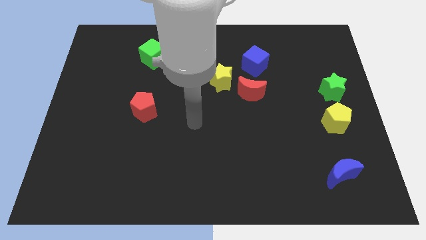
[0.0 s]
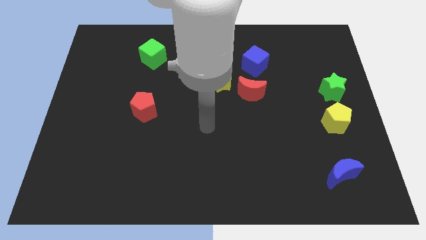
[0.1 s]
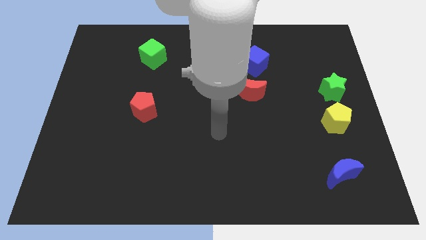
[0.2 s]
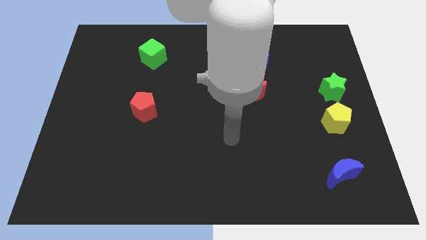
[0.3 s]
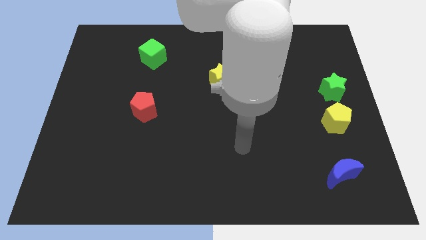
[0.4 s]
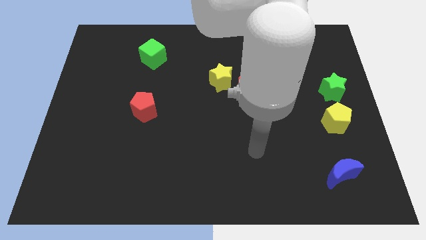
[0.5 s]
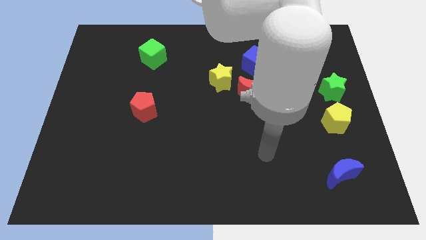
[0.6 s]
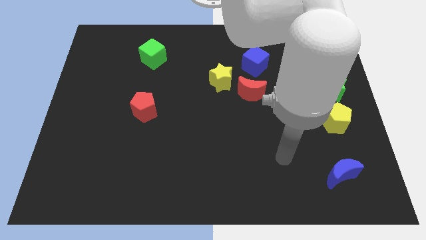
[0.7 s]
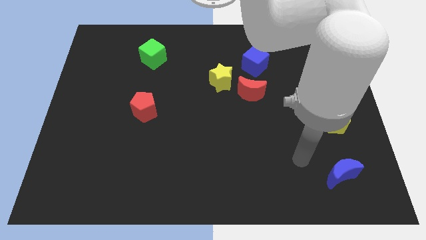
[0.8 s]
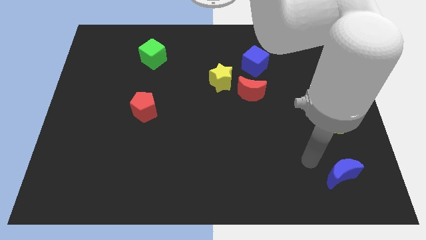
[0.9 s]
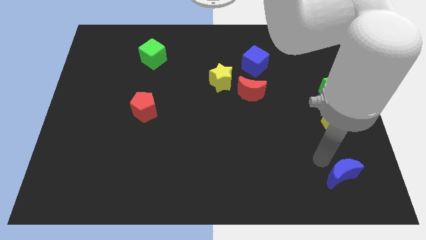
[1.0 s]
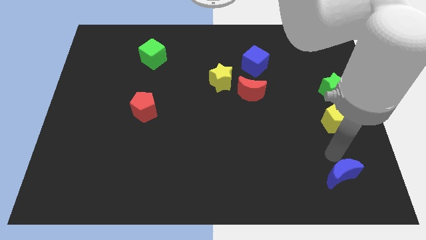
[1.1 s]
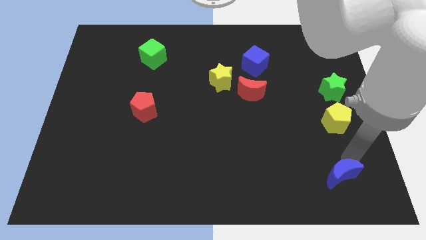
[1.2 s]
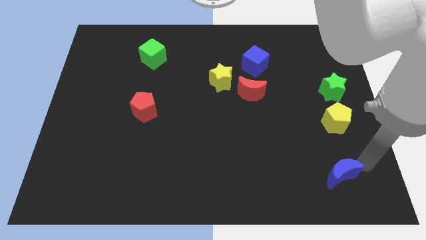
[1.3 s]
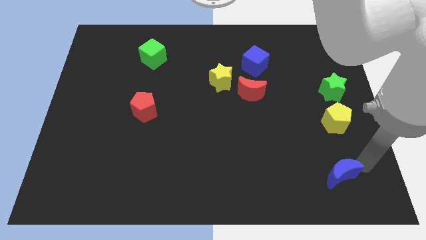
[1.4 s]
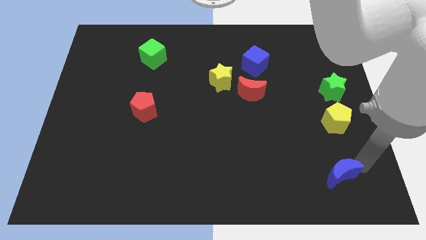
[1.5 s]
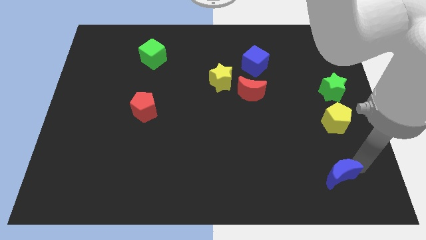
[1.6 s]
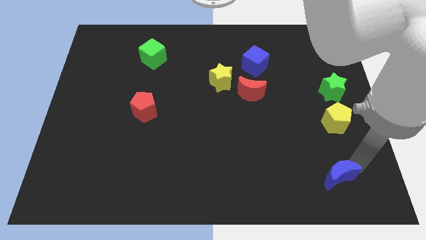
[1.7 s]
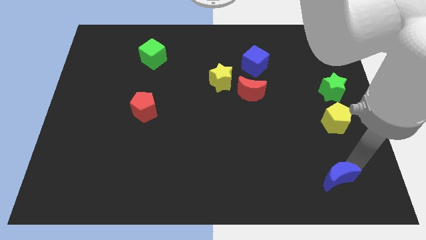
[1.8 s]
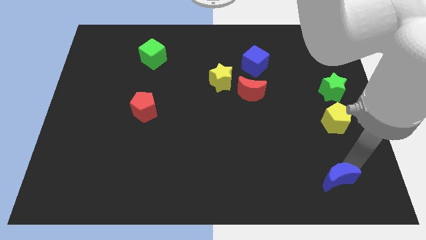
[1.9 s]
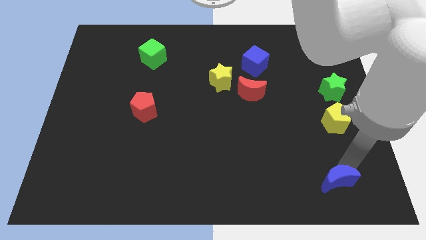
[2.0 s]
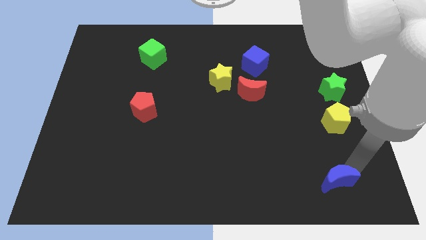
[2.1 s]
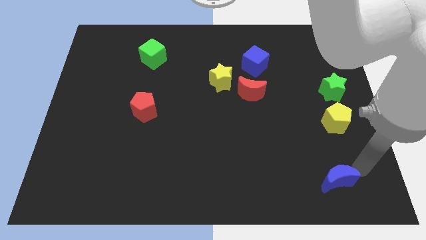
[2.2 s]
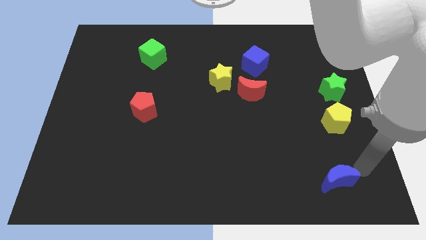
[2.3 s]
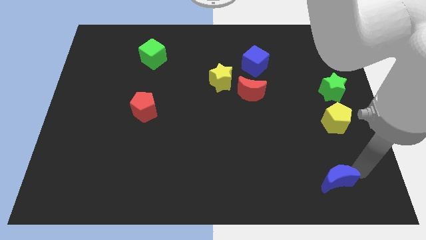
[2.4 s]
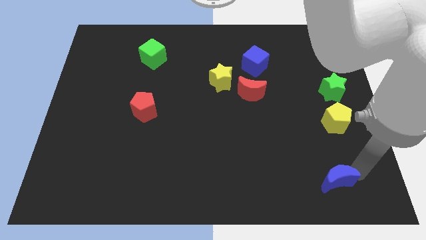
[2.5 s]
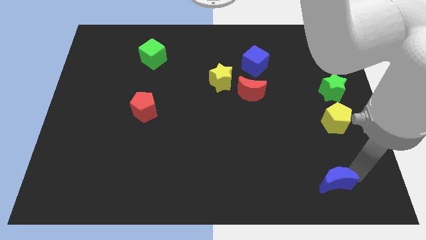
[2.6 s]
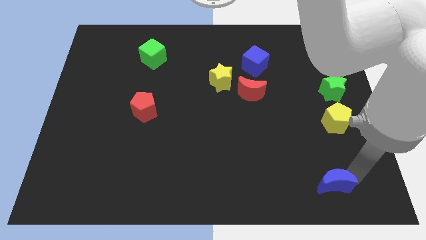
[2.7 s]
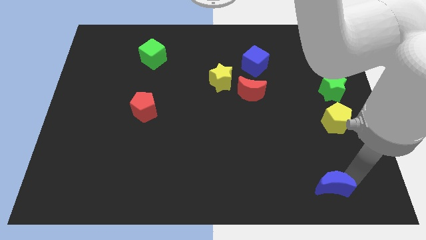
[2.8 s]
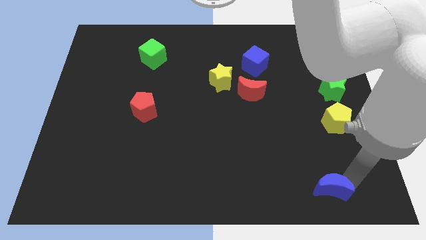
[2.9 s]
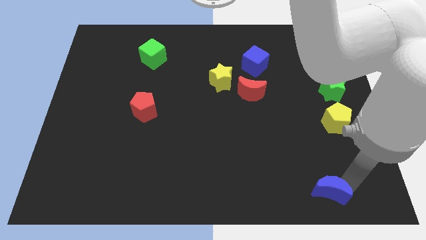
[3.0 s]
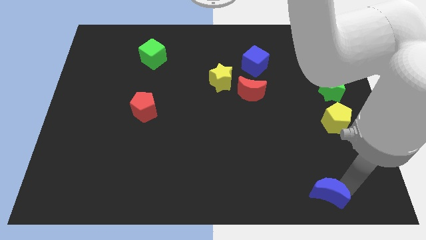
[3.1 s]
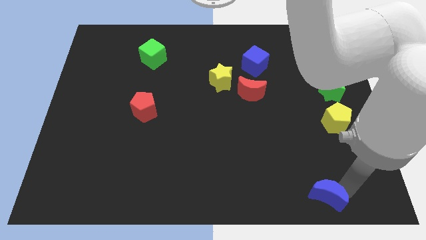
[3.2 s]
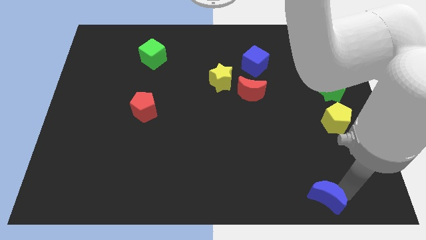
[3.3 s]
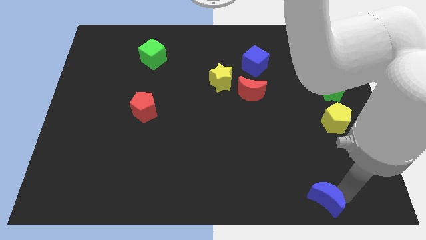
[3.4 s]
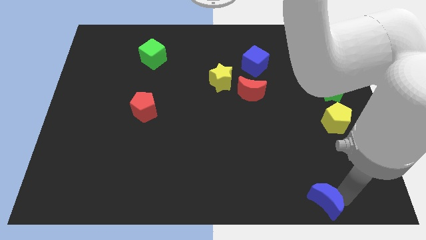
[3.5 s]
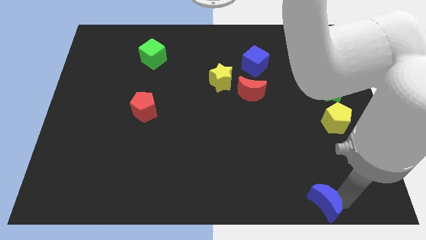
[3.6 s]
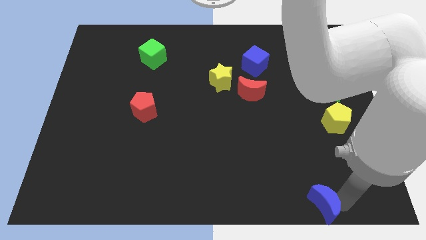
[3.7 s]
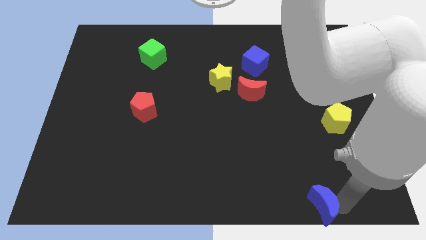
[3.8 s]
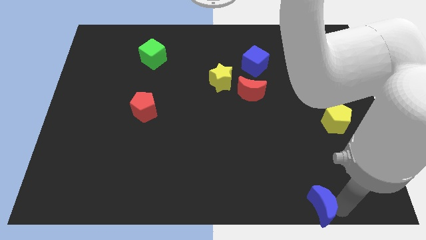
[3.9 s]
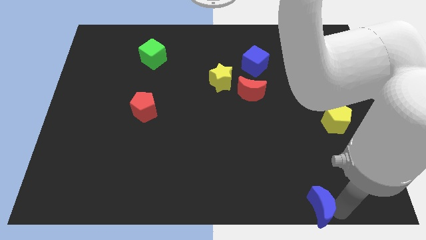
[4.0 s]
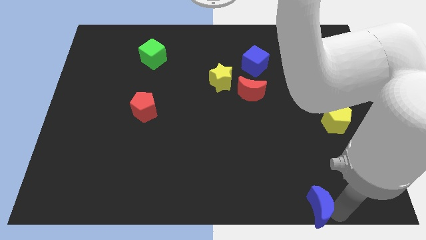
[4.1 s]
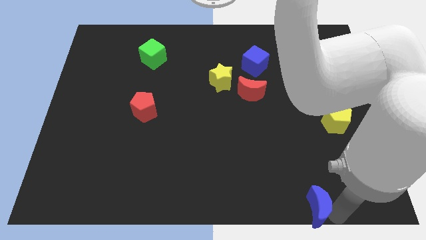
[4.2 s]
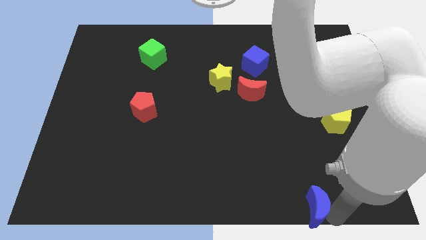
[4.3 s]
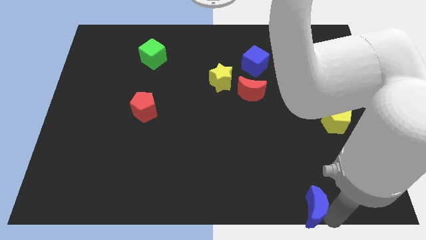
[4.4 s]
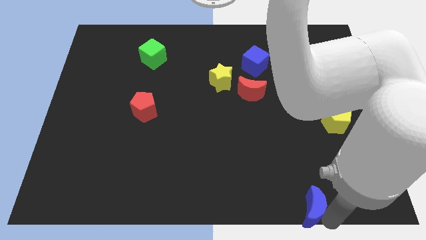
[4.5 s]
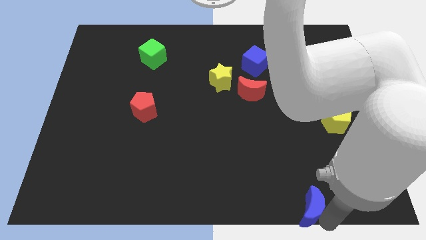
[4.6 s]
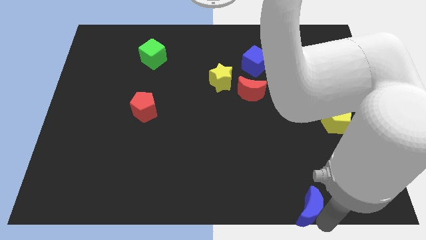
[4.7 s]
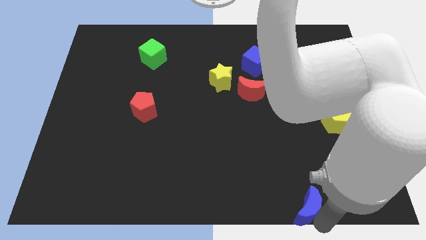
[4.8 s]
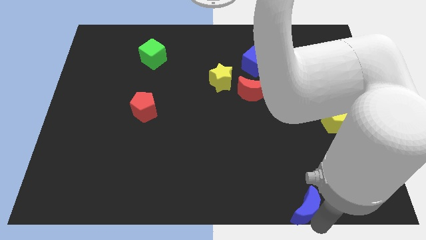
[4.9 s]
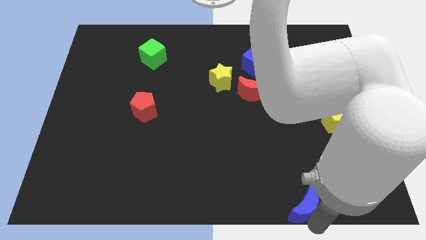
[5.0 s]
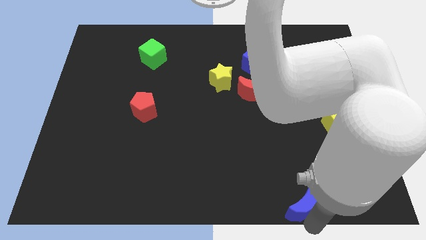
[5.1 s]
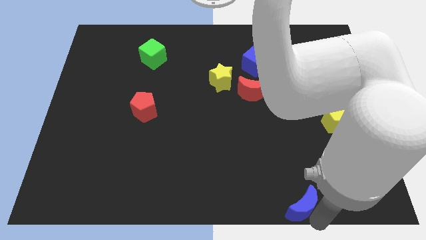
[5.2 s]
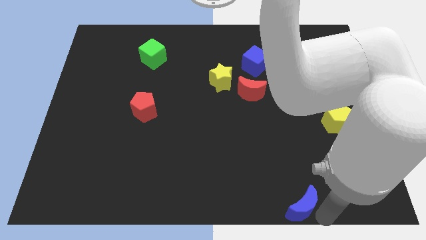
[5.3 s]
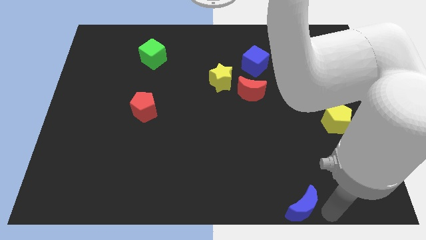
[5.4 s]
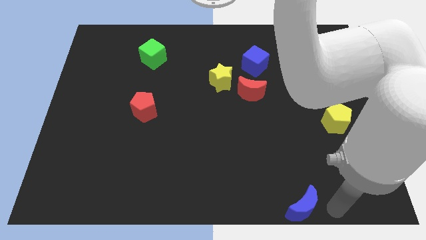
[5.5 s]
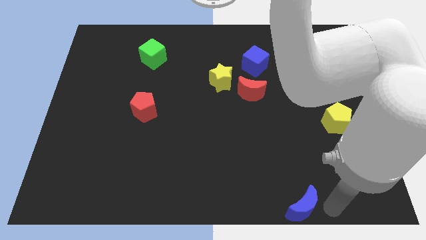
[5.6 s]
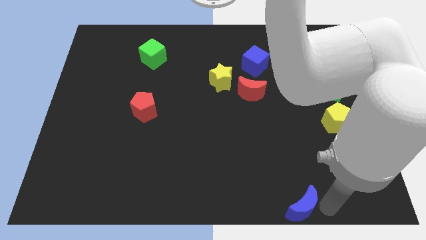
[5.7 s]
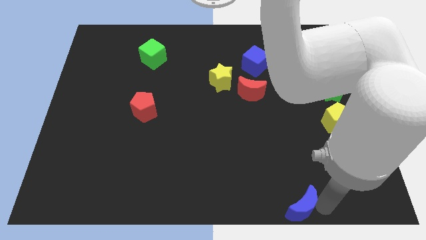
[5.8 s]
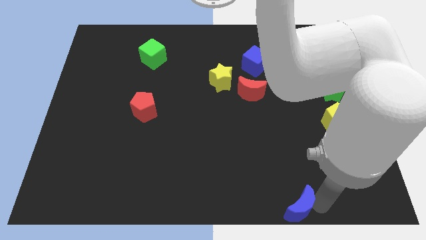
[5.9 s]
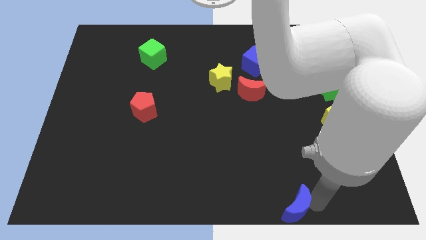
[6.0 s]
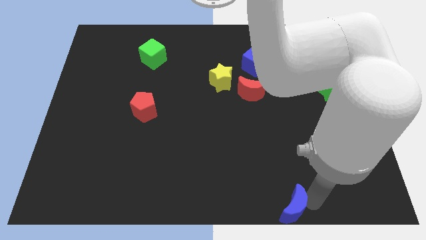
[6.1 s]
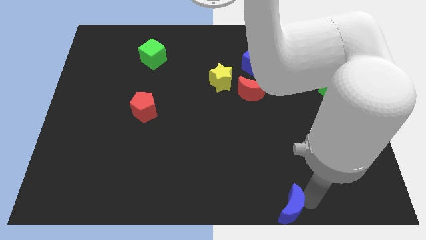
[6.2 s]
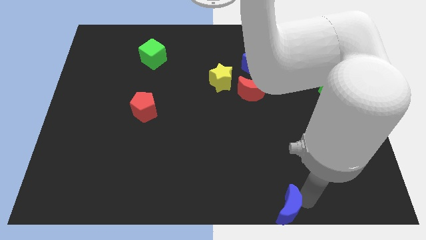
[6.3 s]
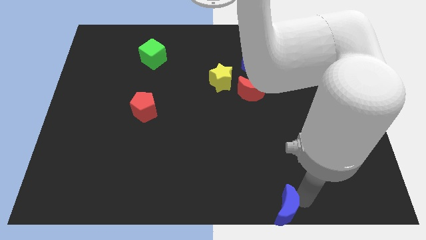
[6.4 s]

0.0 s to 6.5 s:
put the blue moon to the bottom side
